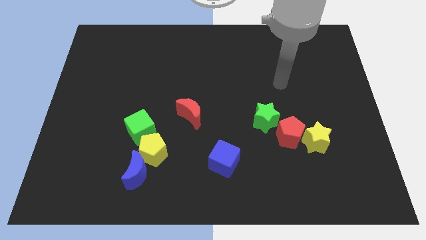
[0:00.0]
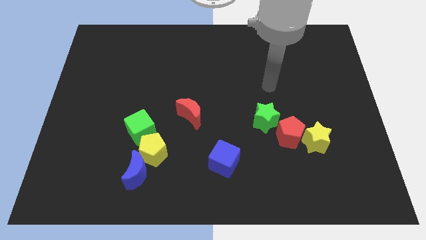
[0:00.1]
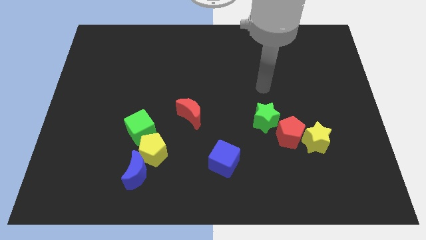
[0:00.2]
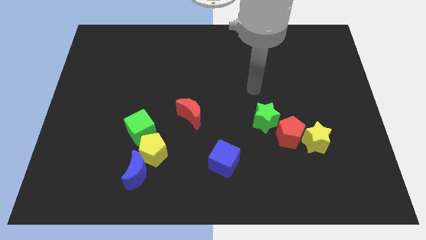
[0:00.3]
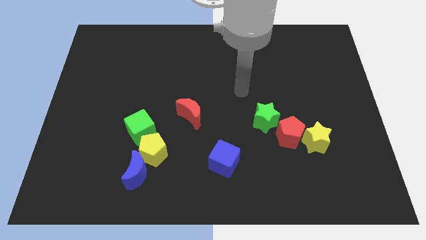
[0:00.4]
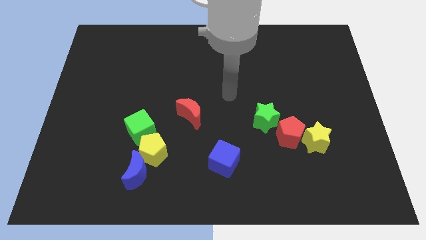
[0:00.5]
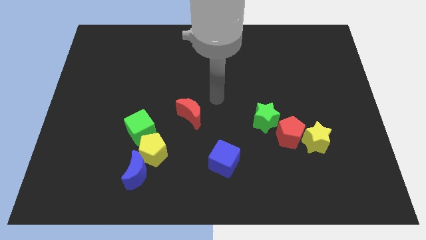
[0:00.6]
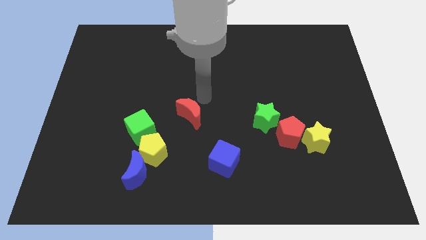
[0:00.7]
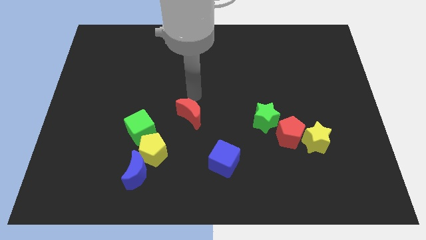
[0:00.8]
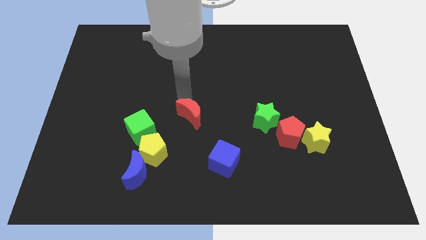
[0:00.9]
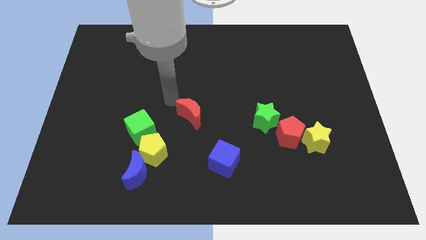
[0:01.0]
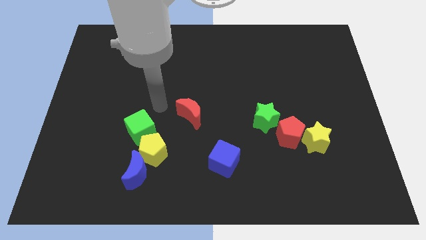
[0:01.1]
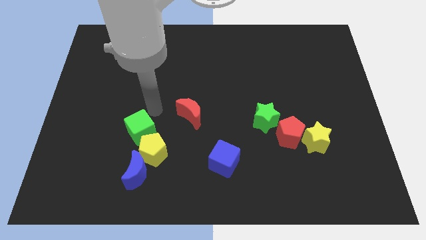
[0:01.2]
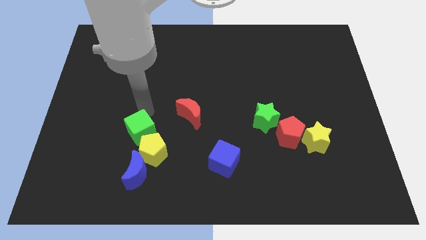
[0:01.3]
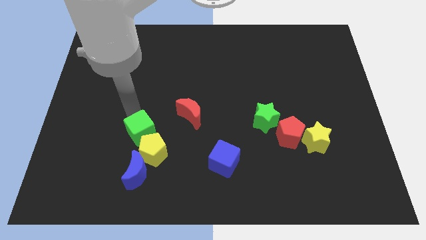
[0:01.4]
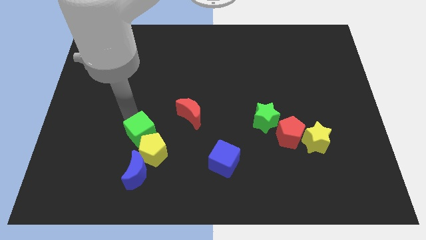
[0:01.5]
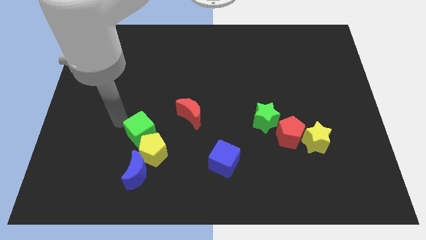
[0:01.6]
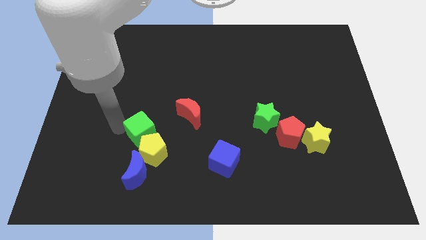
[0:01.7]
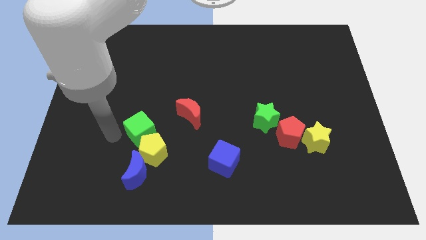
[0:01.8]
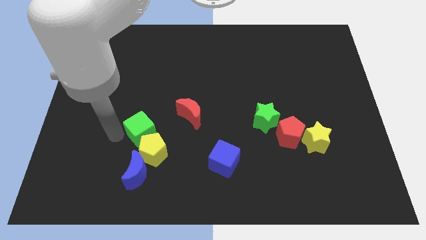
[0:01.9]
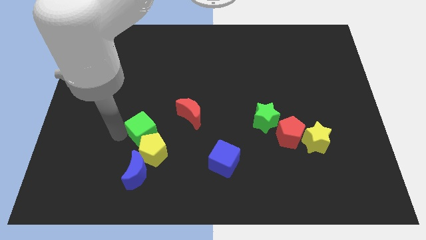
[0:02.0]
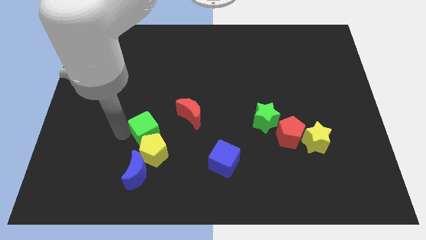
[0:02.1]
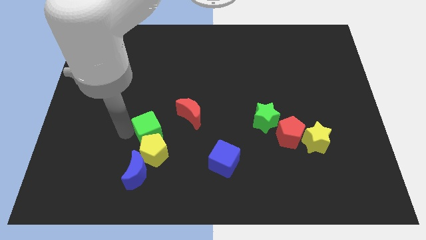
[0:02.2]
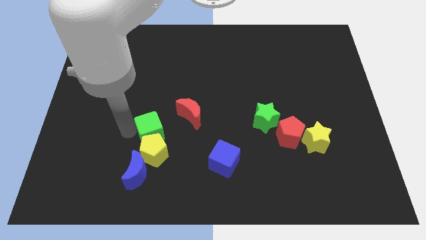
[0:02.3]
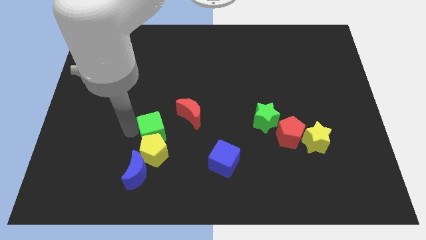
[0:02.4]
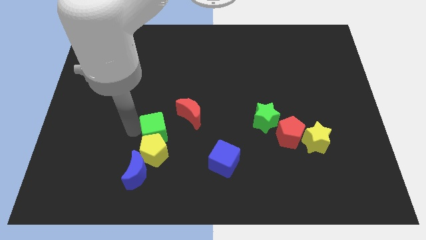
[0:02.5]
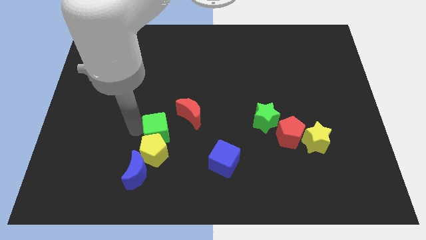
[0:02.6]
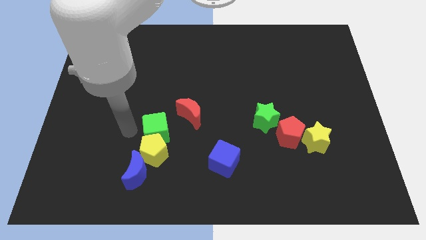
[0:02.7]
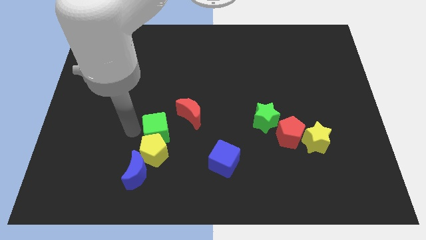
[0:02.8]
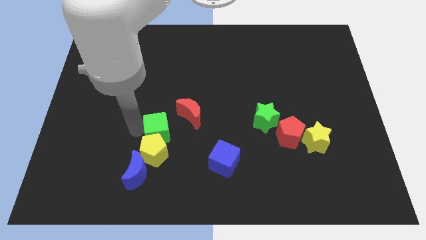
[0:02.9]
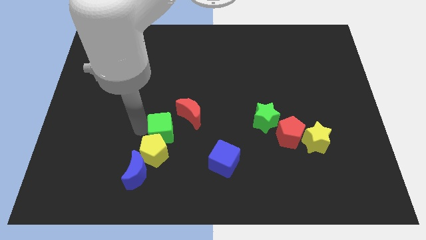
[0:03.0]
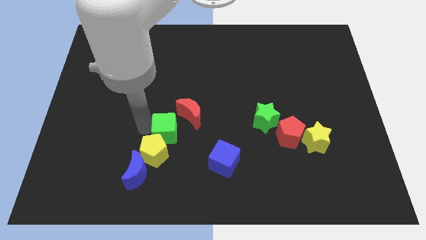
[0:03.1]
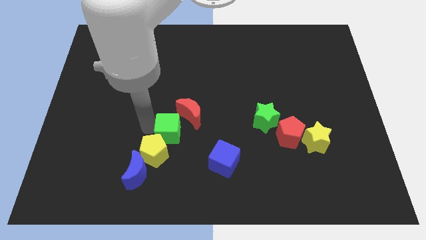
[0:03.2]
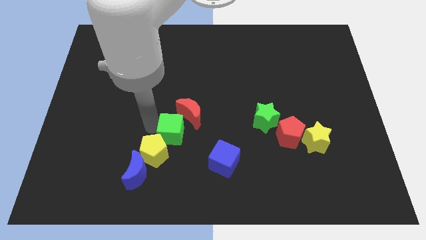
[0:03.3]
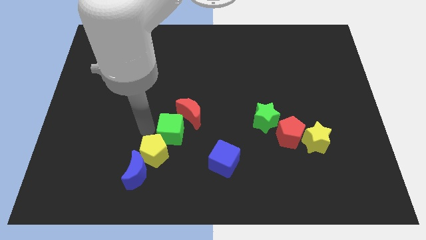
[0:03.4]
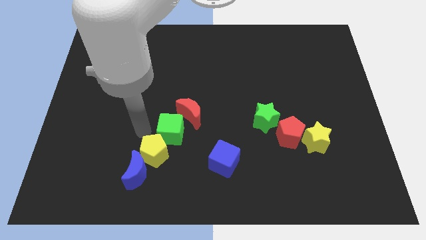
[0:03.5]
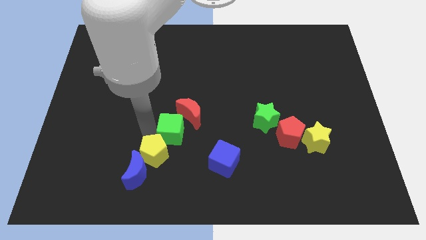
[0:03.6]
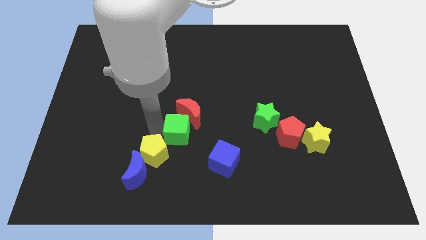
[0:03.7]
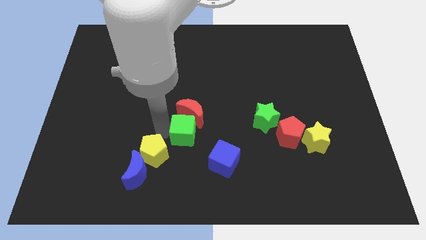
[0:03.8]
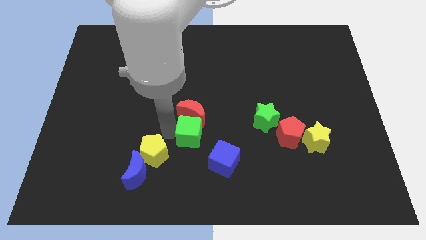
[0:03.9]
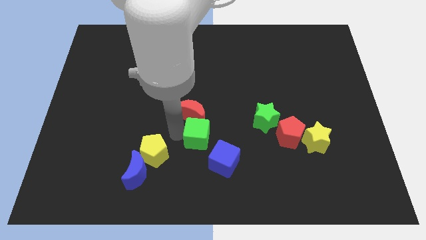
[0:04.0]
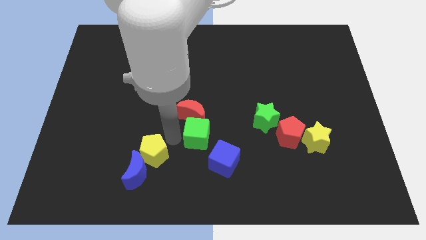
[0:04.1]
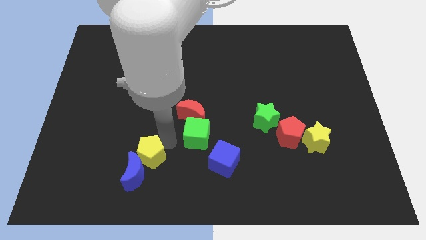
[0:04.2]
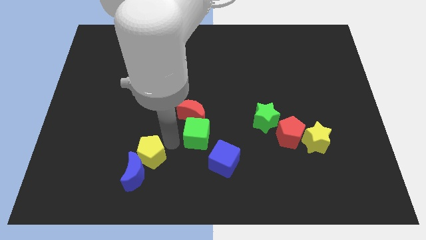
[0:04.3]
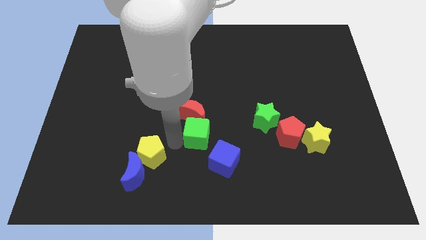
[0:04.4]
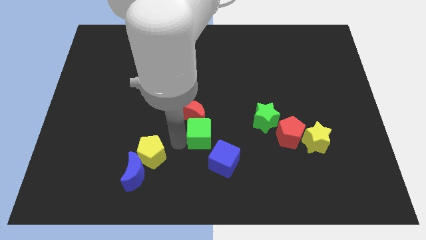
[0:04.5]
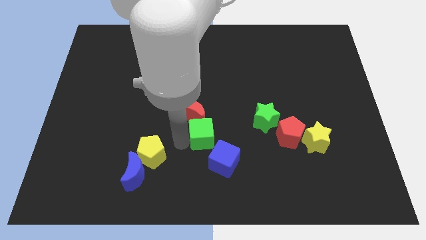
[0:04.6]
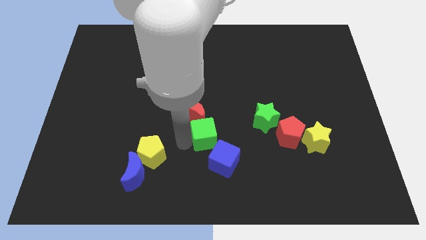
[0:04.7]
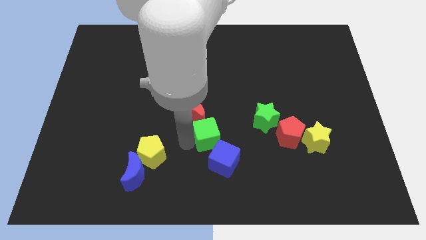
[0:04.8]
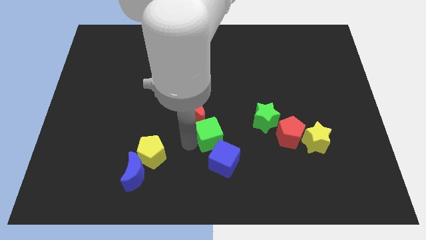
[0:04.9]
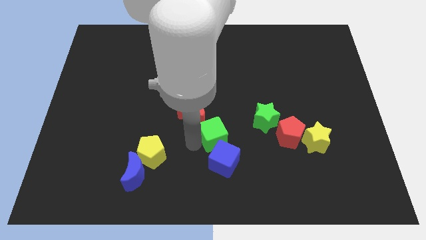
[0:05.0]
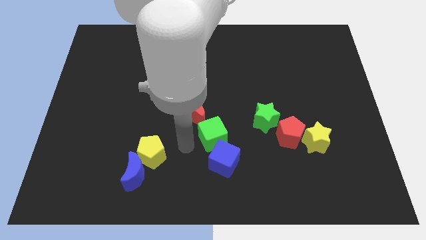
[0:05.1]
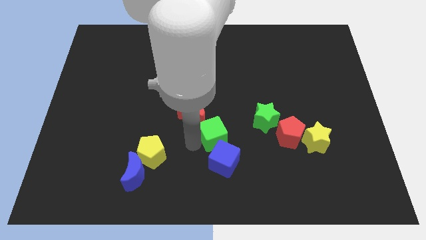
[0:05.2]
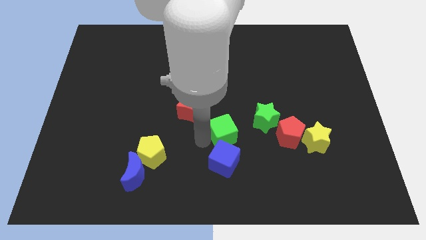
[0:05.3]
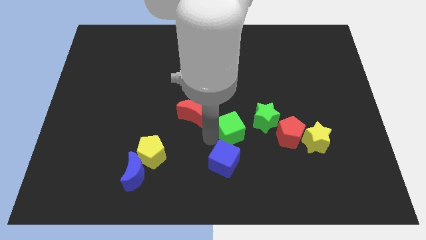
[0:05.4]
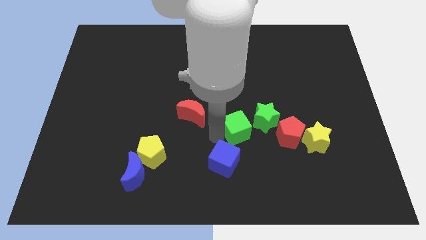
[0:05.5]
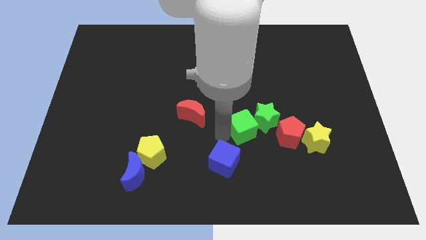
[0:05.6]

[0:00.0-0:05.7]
put the green cube next to the green star

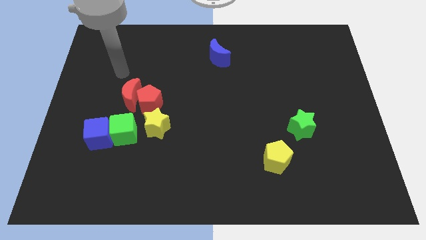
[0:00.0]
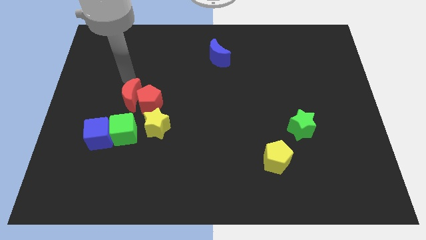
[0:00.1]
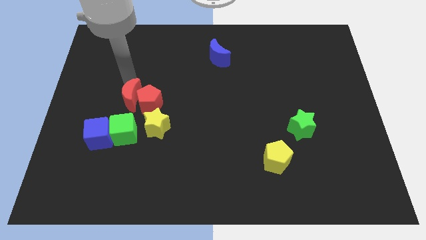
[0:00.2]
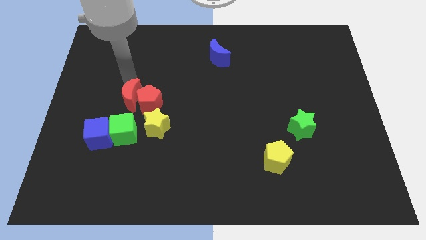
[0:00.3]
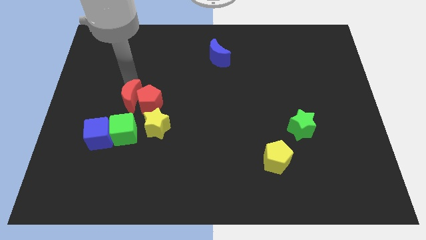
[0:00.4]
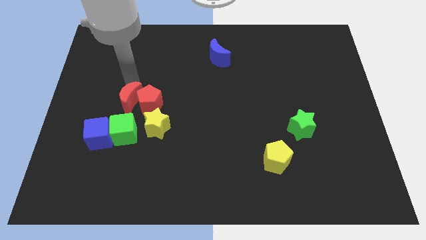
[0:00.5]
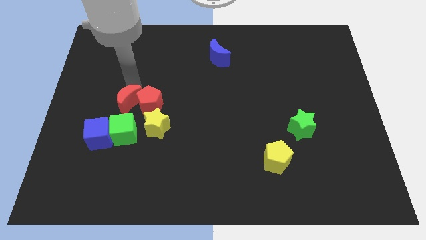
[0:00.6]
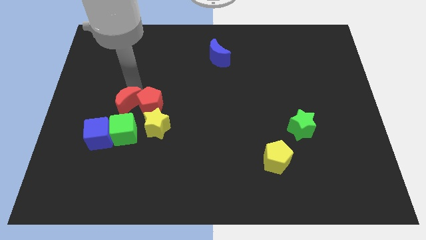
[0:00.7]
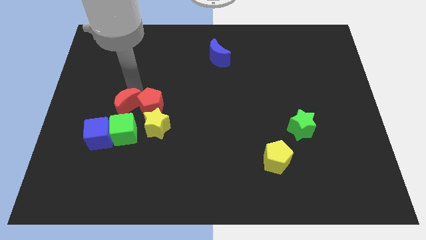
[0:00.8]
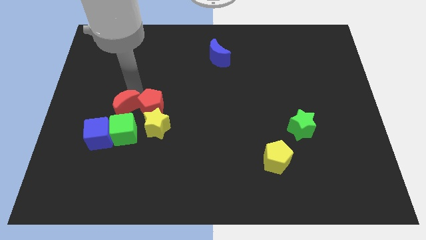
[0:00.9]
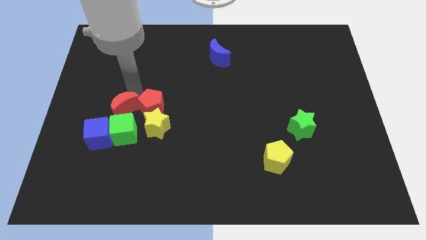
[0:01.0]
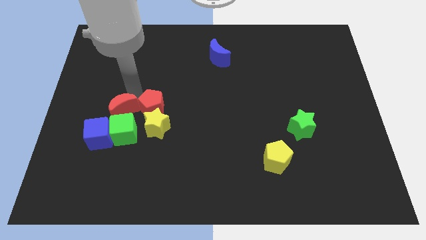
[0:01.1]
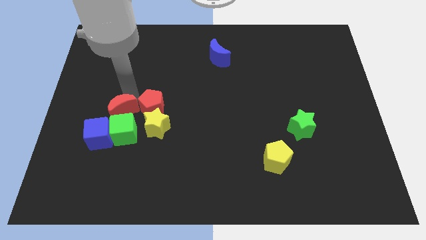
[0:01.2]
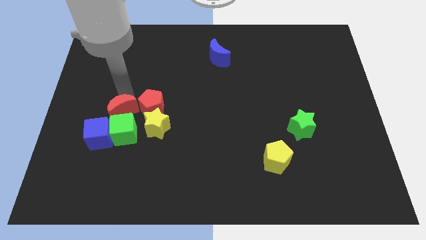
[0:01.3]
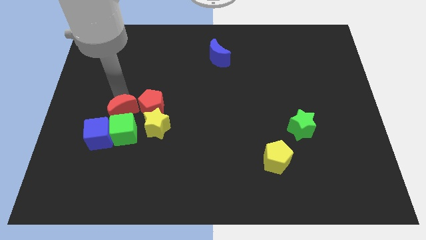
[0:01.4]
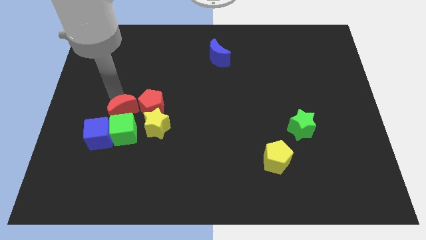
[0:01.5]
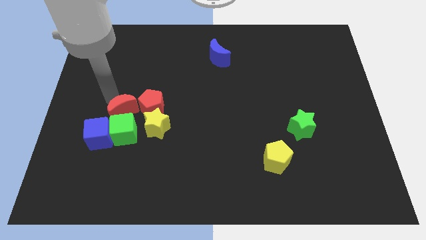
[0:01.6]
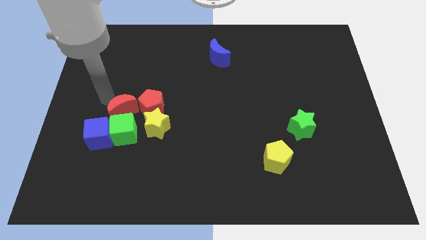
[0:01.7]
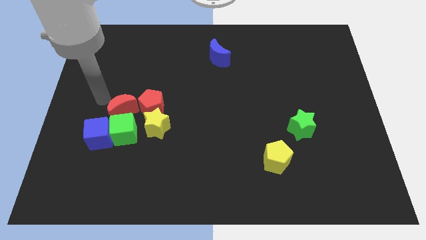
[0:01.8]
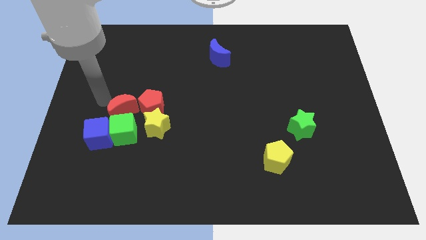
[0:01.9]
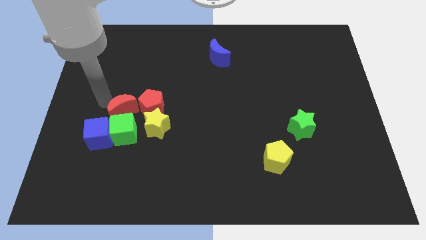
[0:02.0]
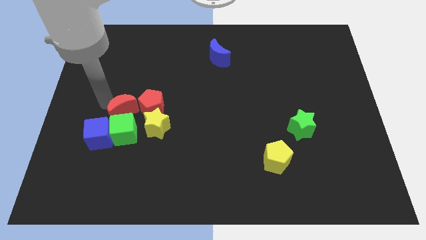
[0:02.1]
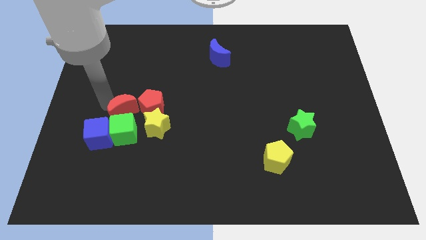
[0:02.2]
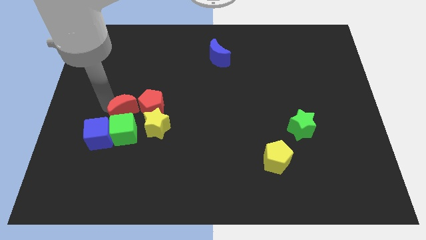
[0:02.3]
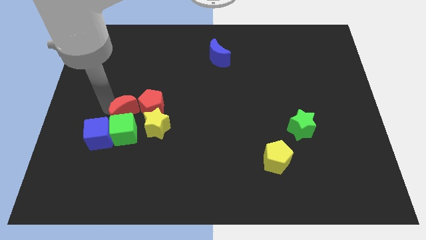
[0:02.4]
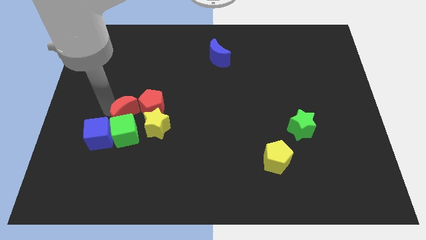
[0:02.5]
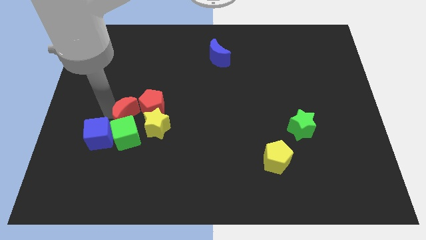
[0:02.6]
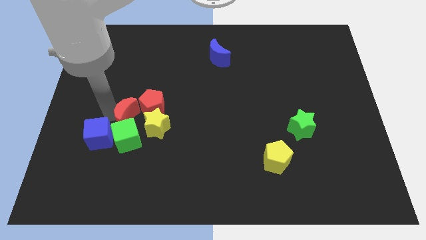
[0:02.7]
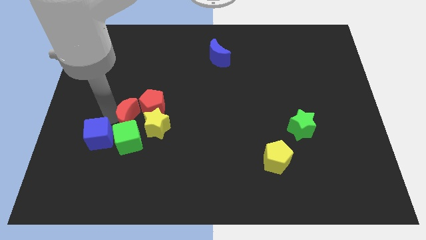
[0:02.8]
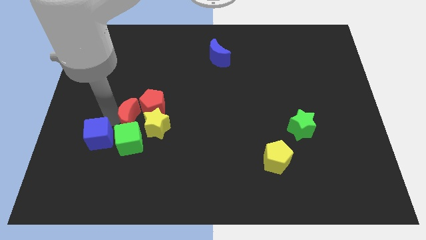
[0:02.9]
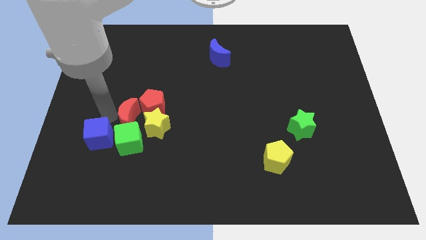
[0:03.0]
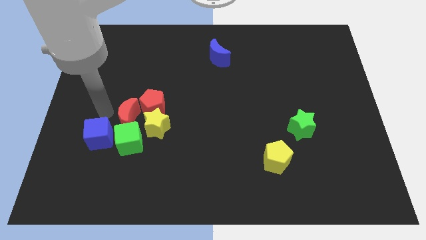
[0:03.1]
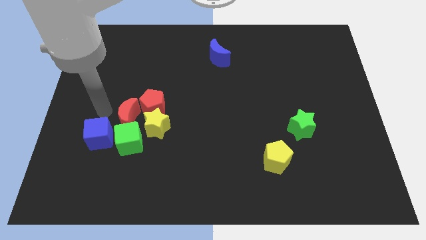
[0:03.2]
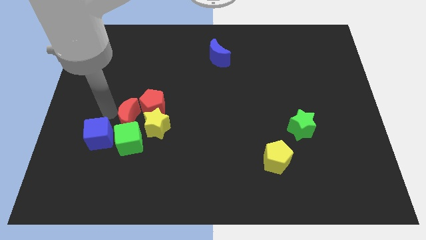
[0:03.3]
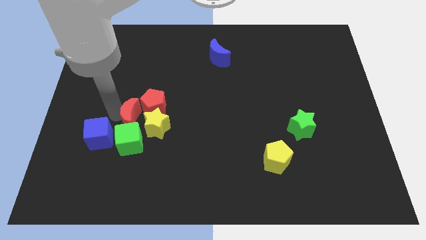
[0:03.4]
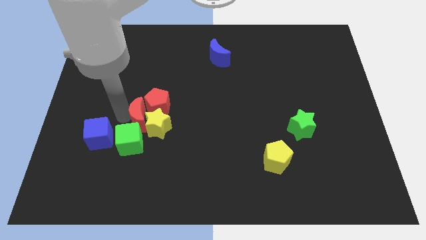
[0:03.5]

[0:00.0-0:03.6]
slide the red moon towards the yellow star
